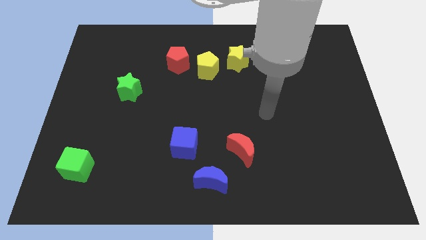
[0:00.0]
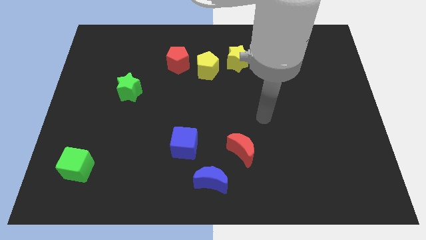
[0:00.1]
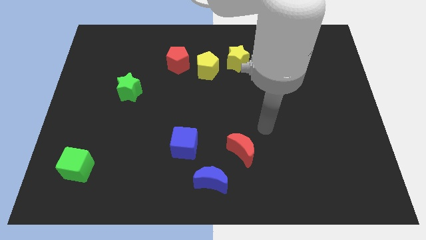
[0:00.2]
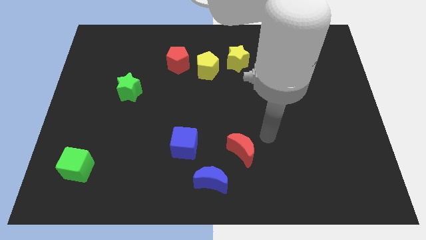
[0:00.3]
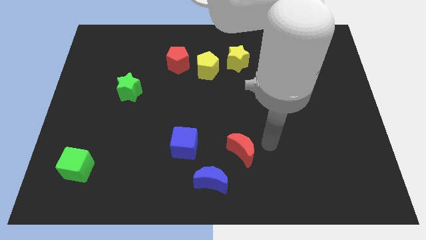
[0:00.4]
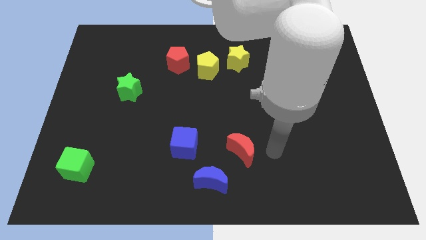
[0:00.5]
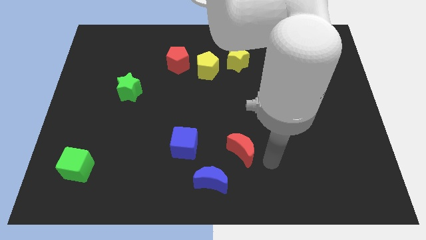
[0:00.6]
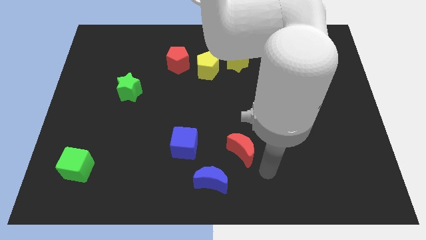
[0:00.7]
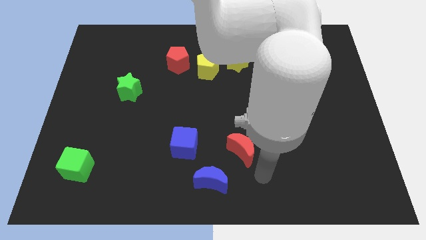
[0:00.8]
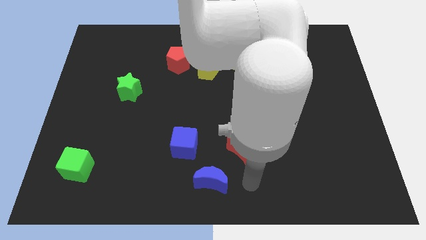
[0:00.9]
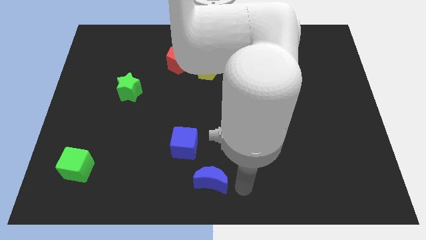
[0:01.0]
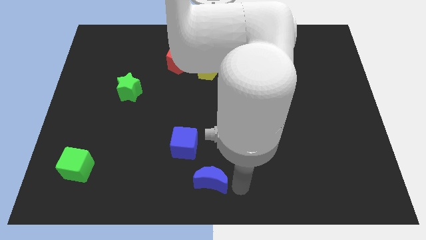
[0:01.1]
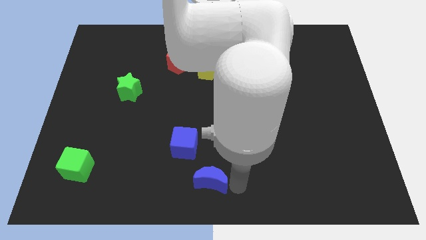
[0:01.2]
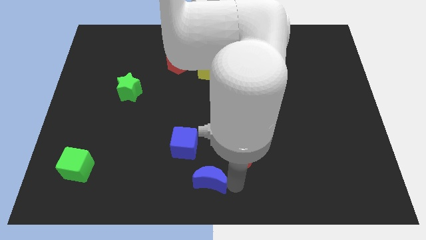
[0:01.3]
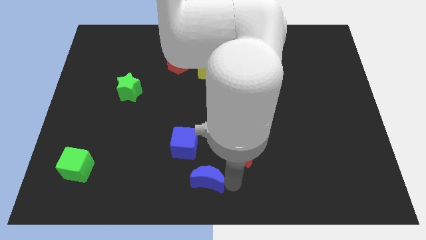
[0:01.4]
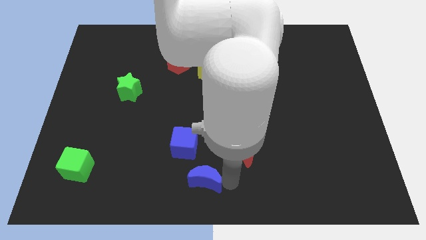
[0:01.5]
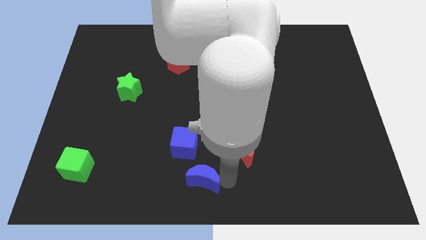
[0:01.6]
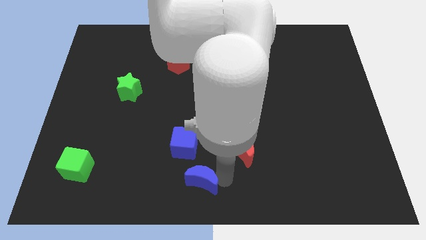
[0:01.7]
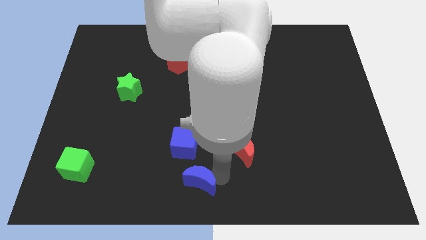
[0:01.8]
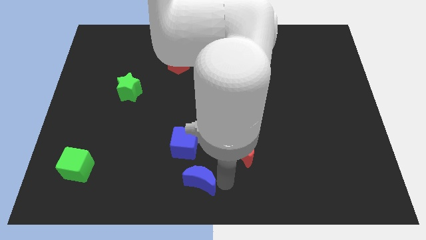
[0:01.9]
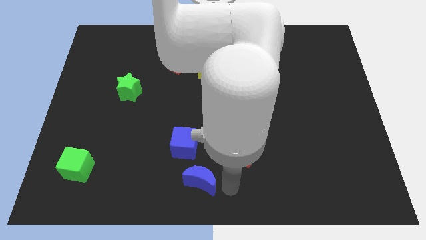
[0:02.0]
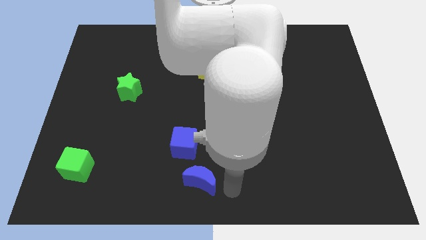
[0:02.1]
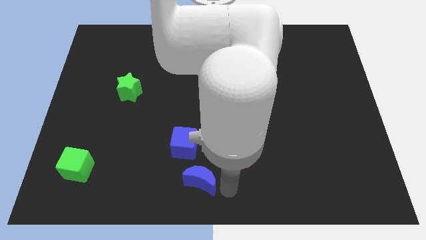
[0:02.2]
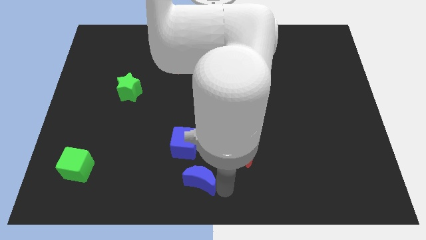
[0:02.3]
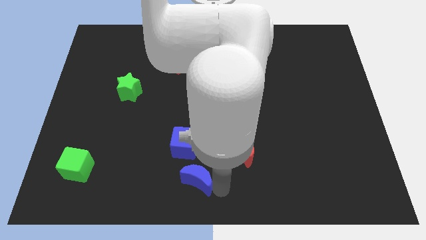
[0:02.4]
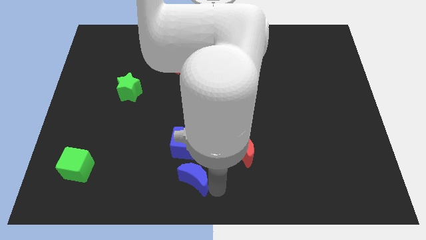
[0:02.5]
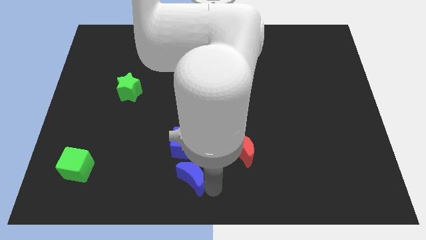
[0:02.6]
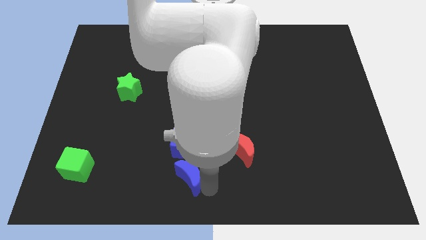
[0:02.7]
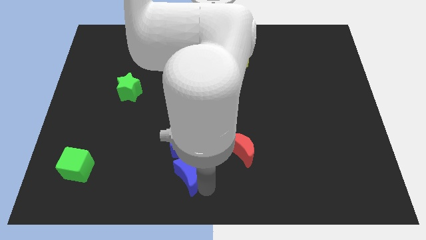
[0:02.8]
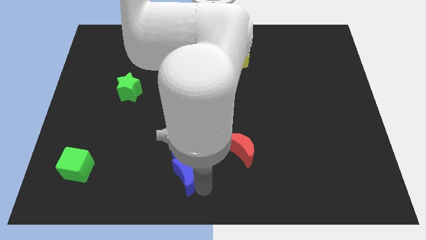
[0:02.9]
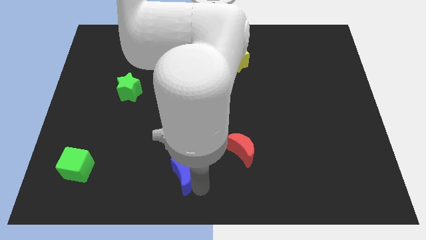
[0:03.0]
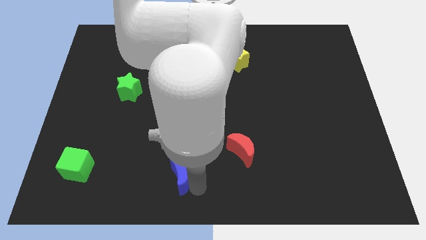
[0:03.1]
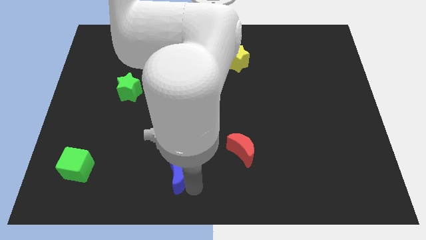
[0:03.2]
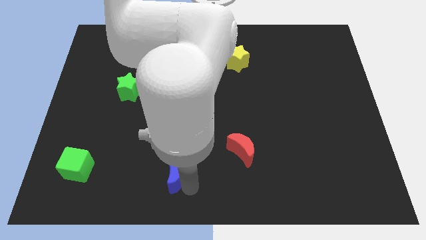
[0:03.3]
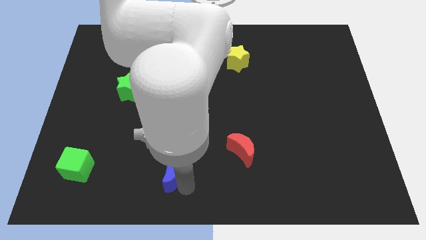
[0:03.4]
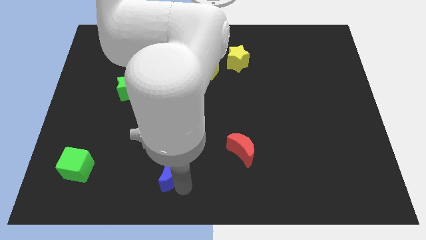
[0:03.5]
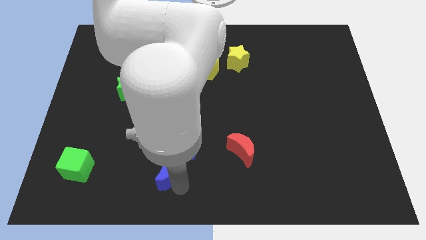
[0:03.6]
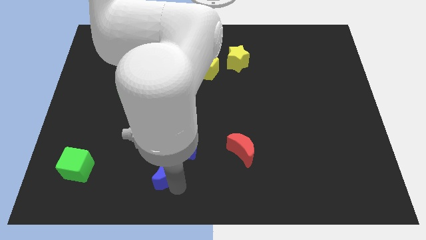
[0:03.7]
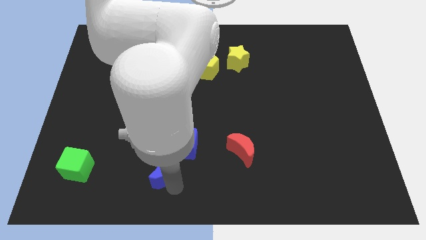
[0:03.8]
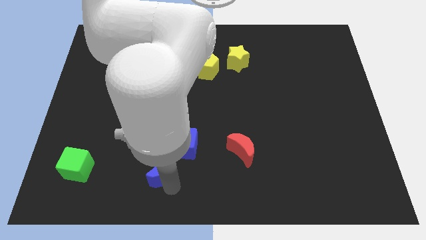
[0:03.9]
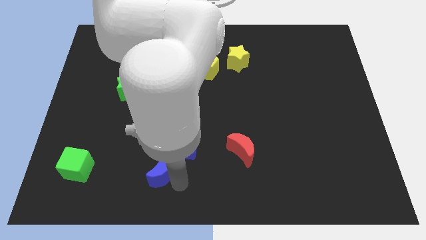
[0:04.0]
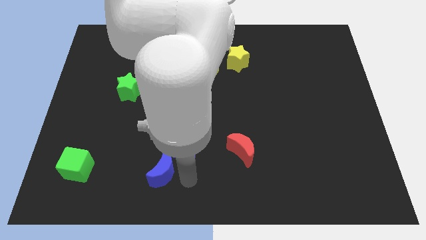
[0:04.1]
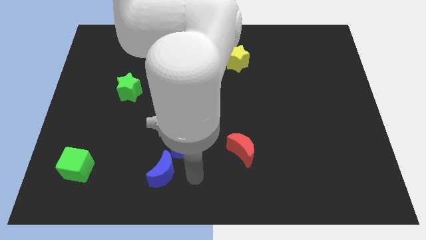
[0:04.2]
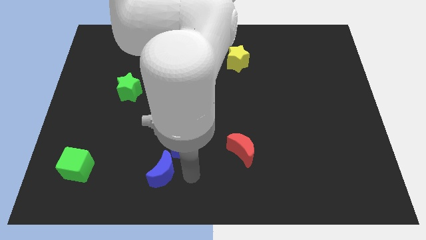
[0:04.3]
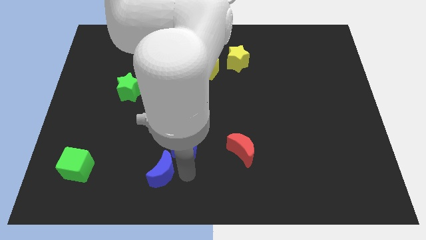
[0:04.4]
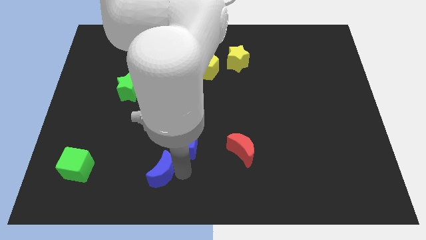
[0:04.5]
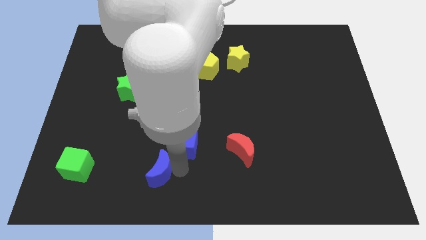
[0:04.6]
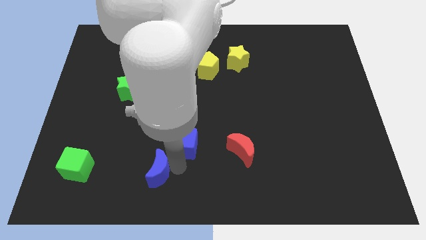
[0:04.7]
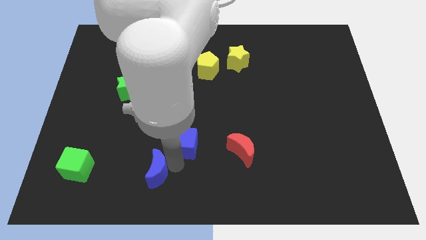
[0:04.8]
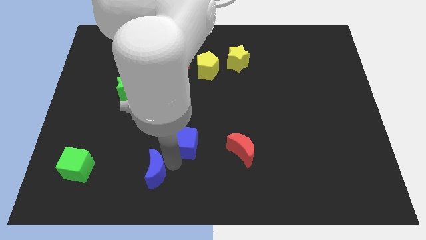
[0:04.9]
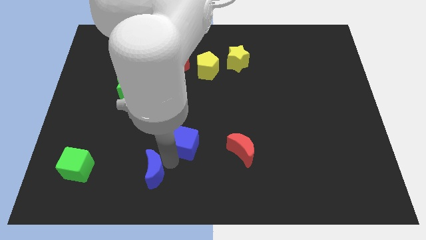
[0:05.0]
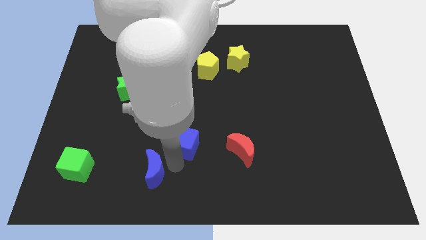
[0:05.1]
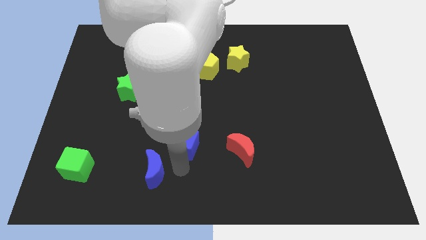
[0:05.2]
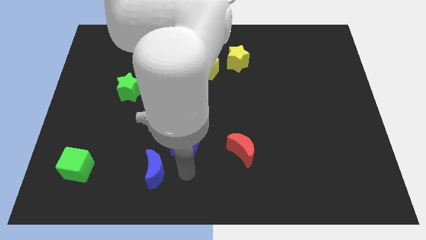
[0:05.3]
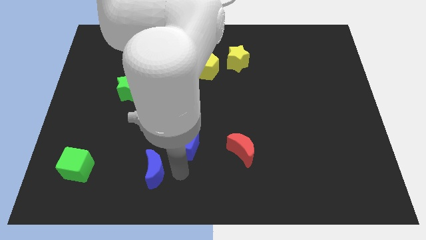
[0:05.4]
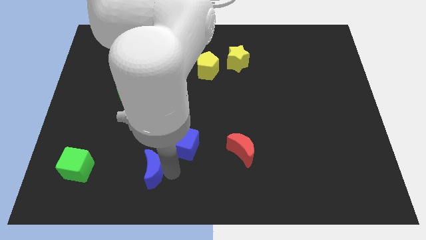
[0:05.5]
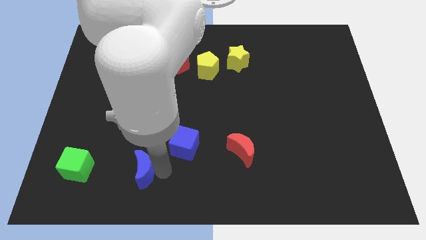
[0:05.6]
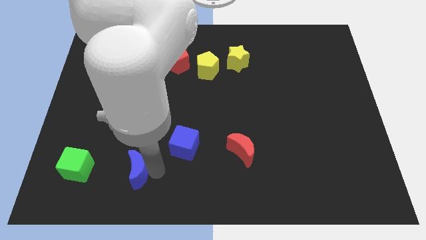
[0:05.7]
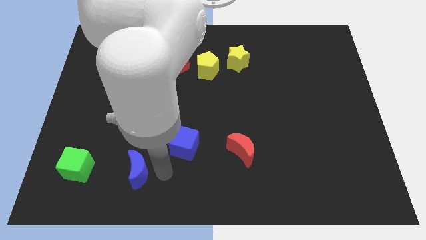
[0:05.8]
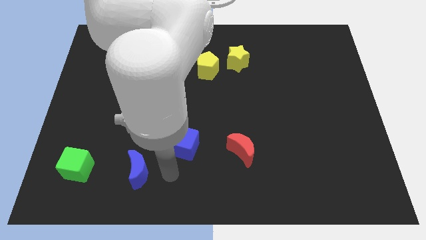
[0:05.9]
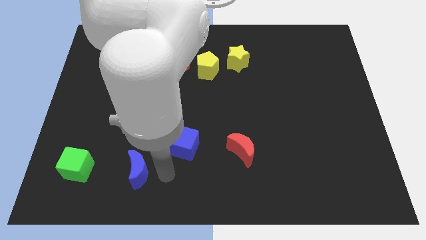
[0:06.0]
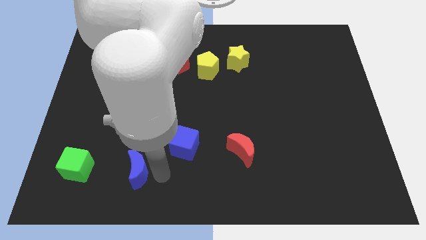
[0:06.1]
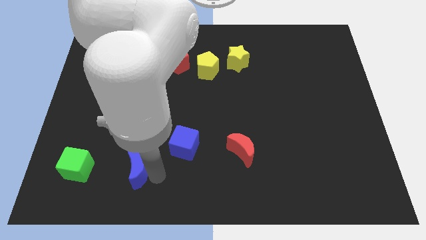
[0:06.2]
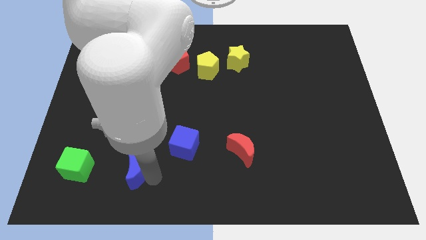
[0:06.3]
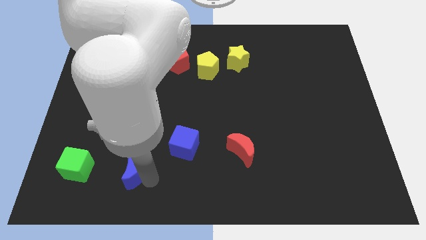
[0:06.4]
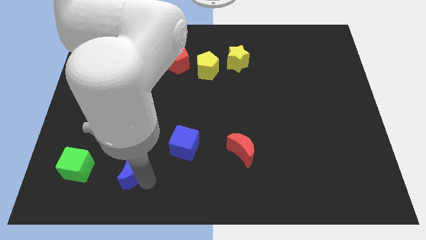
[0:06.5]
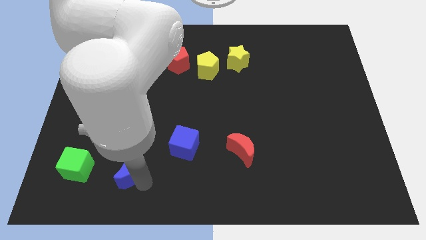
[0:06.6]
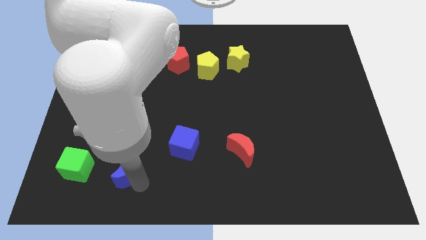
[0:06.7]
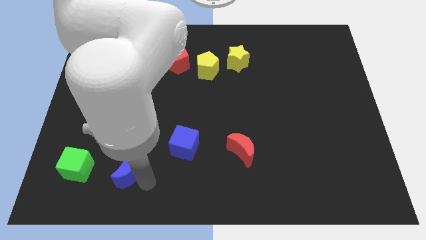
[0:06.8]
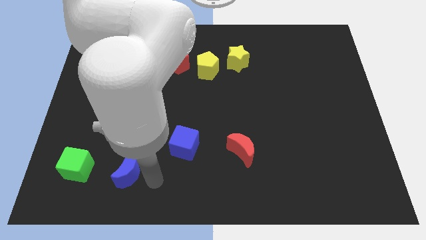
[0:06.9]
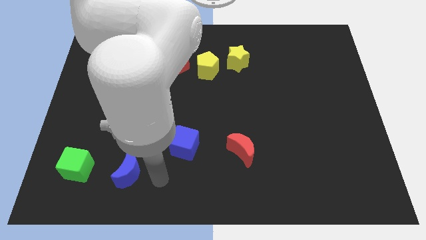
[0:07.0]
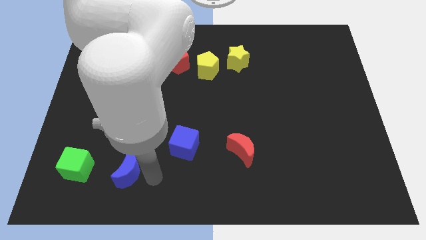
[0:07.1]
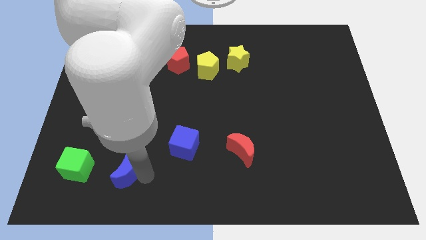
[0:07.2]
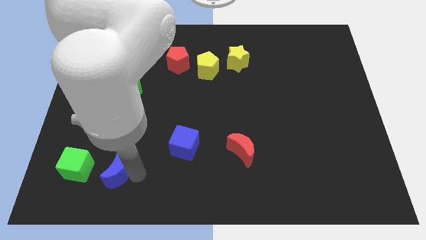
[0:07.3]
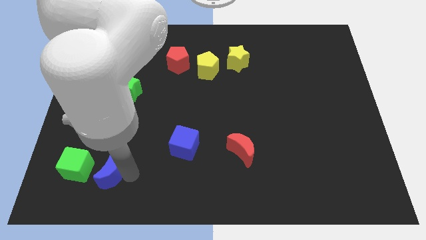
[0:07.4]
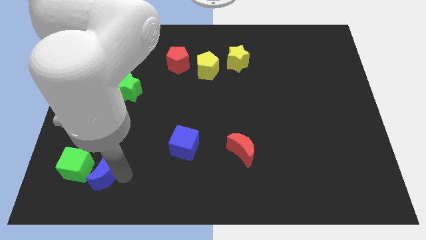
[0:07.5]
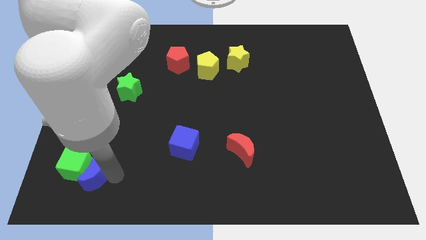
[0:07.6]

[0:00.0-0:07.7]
put the blue moon to the green cube
